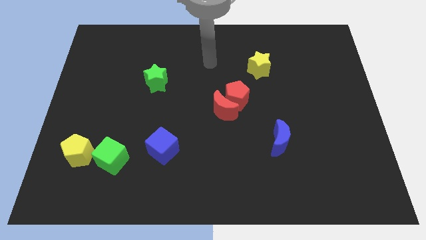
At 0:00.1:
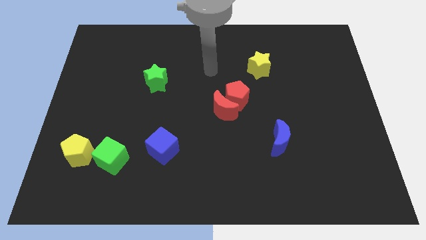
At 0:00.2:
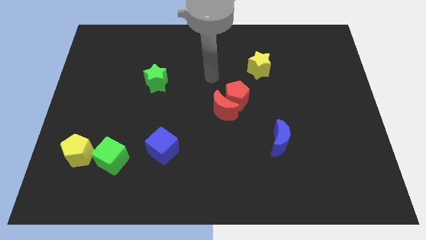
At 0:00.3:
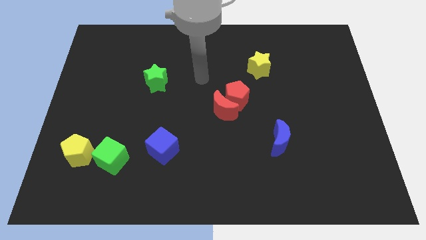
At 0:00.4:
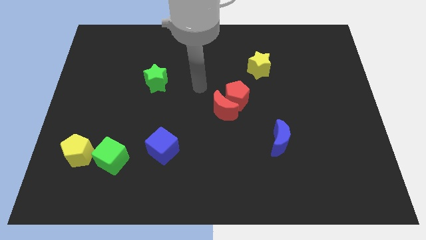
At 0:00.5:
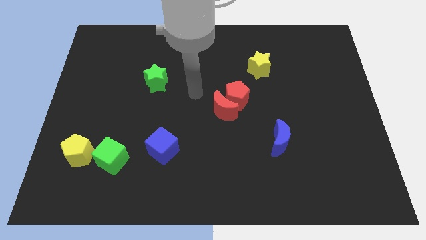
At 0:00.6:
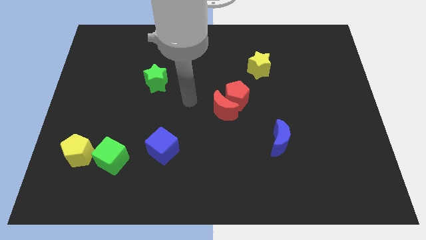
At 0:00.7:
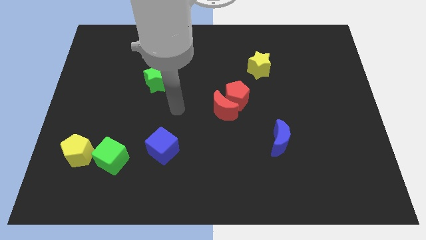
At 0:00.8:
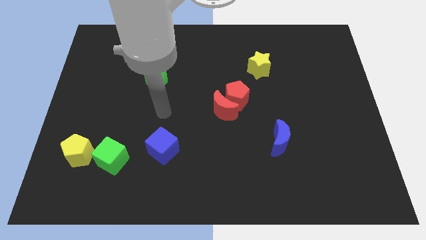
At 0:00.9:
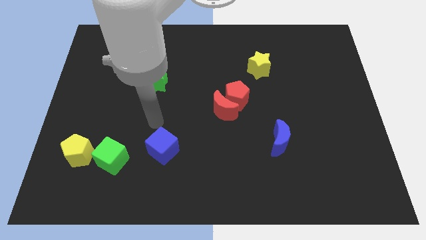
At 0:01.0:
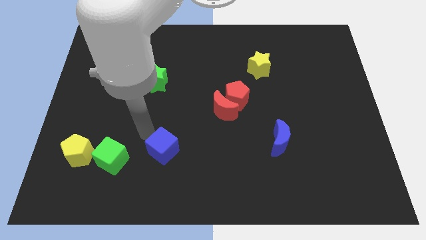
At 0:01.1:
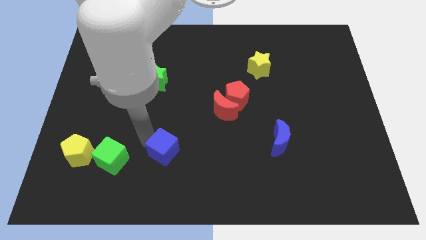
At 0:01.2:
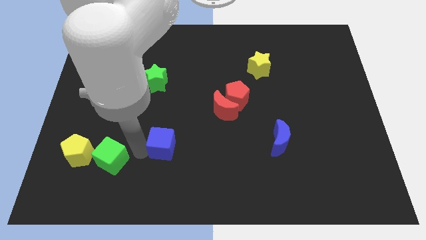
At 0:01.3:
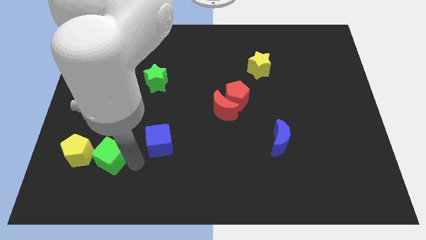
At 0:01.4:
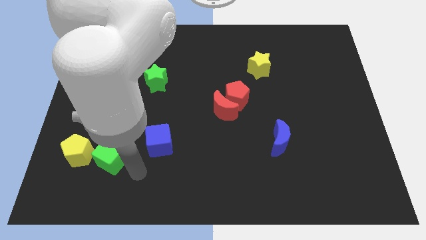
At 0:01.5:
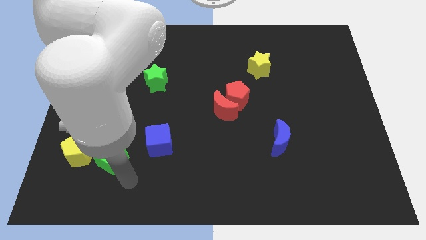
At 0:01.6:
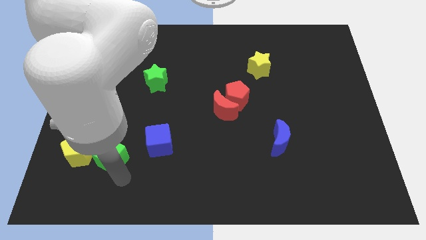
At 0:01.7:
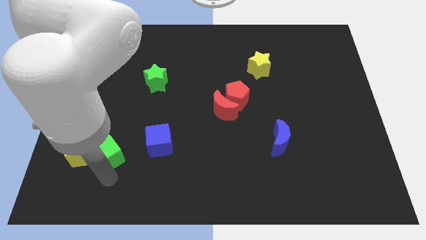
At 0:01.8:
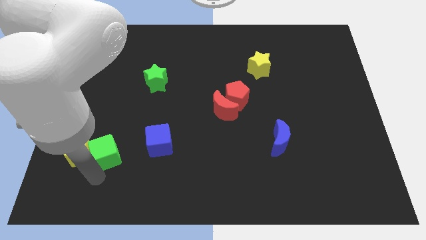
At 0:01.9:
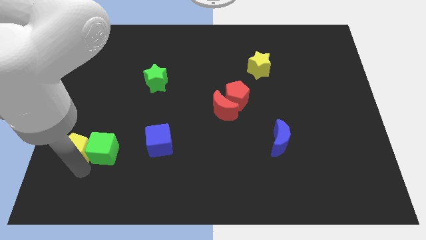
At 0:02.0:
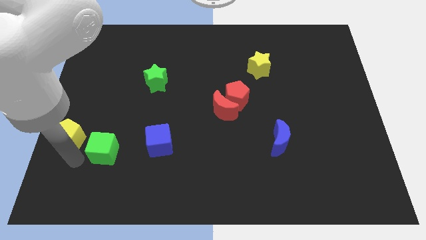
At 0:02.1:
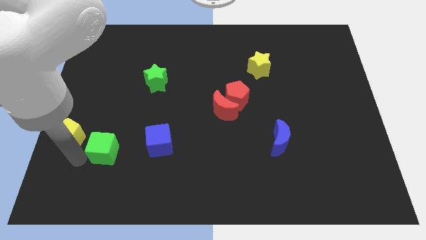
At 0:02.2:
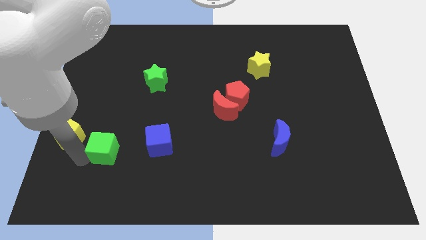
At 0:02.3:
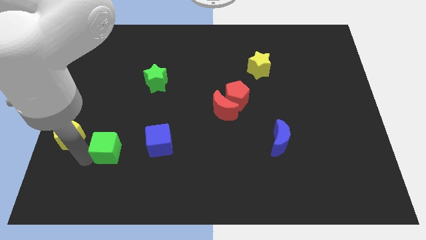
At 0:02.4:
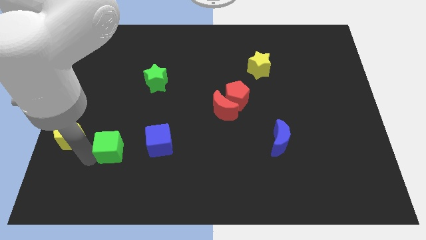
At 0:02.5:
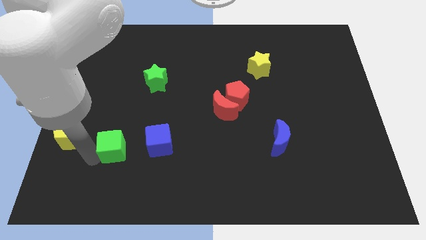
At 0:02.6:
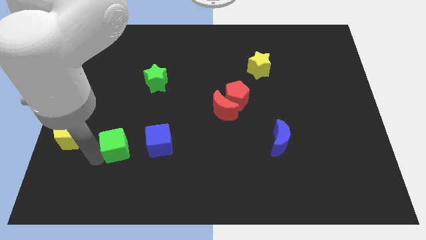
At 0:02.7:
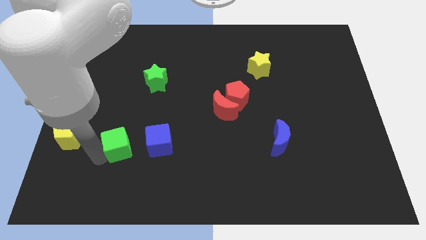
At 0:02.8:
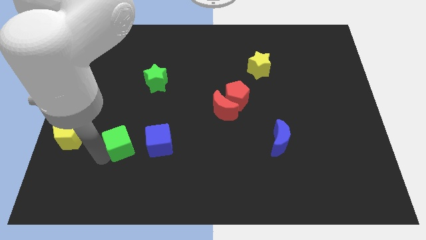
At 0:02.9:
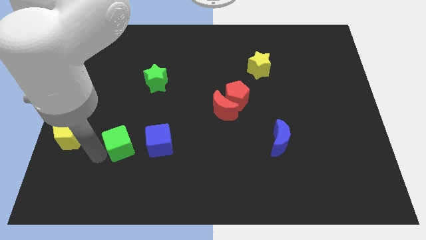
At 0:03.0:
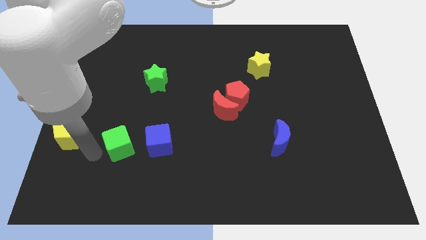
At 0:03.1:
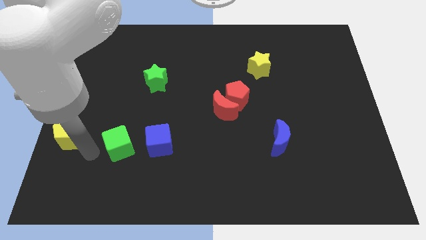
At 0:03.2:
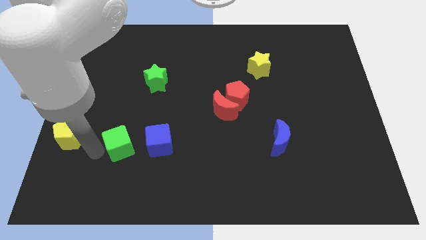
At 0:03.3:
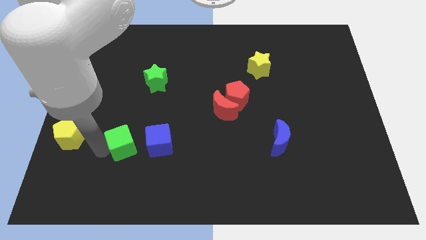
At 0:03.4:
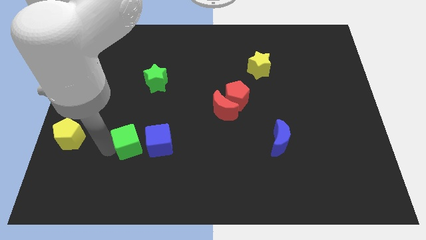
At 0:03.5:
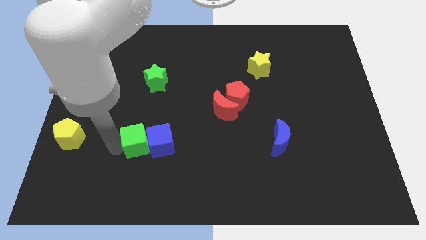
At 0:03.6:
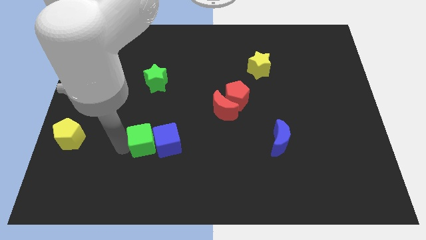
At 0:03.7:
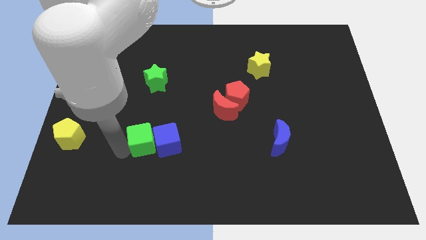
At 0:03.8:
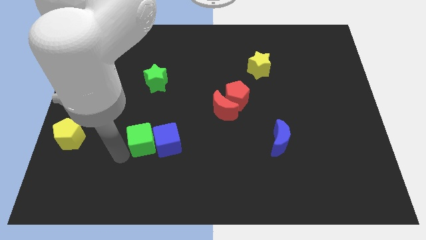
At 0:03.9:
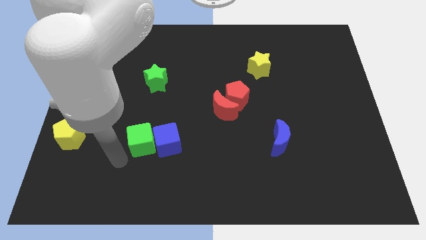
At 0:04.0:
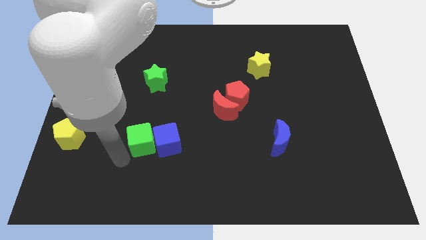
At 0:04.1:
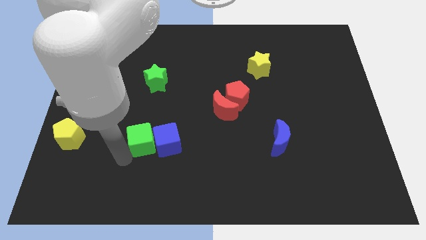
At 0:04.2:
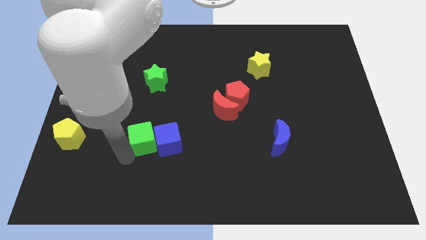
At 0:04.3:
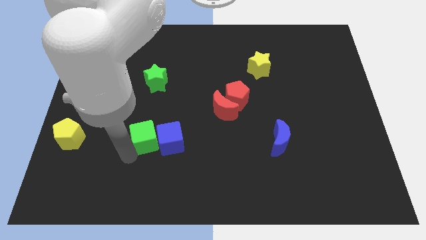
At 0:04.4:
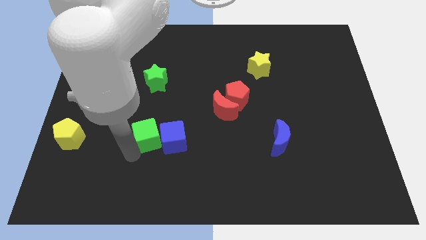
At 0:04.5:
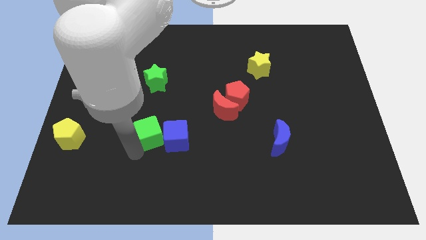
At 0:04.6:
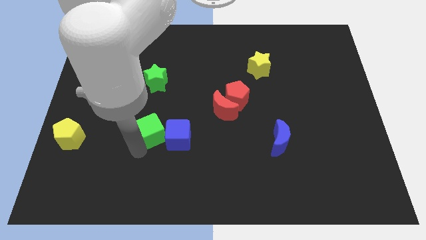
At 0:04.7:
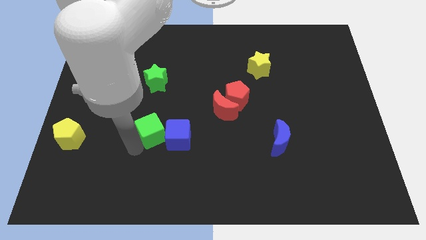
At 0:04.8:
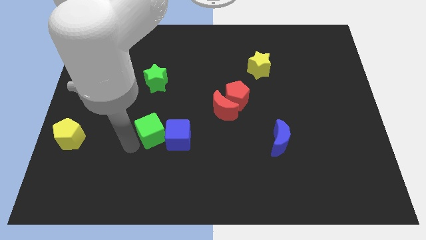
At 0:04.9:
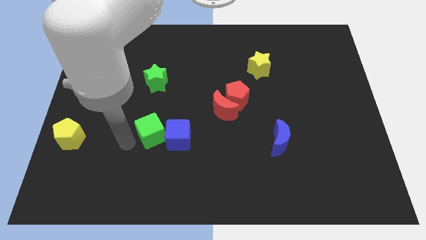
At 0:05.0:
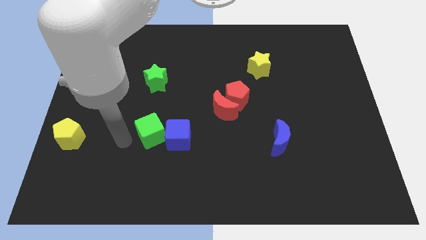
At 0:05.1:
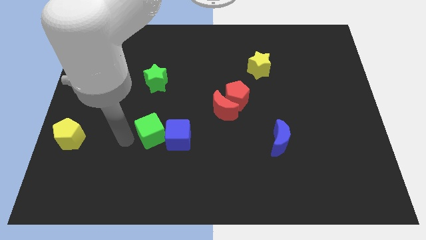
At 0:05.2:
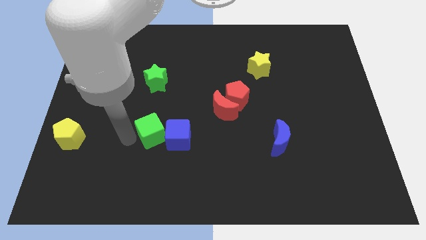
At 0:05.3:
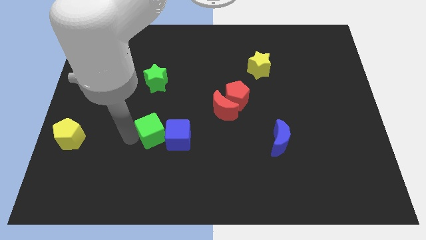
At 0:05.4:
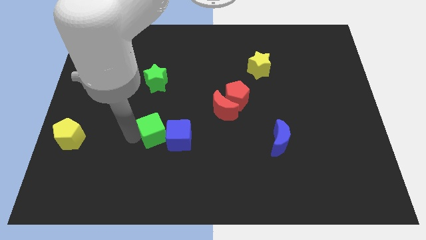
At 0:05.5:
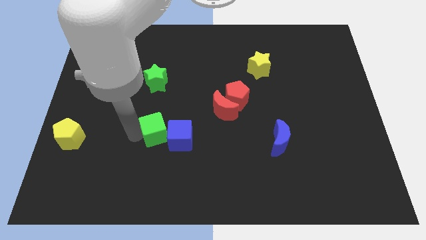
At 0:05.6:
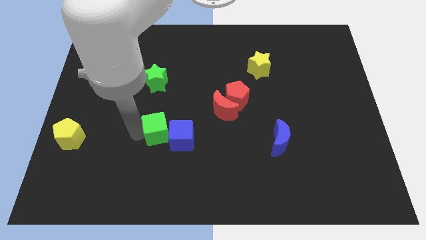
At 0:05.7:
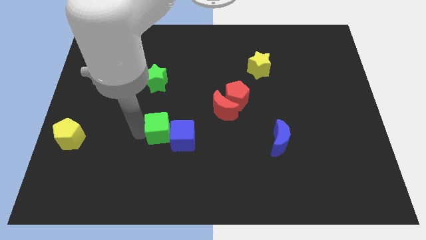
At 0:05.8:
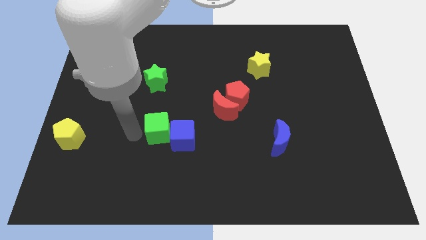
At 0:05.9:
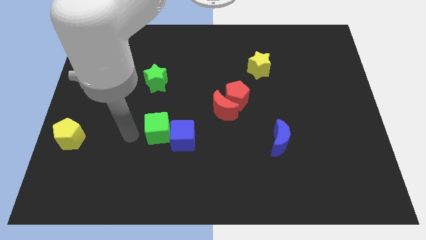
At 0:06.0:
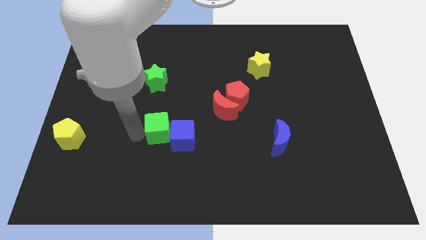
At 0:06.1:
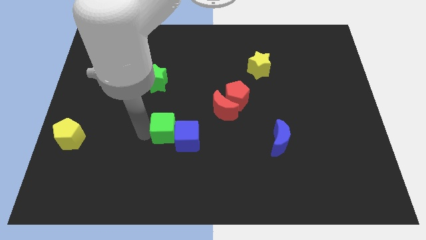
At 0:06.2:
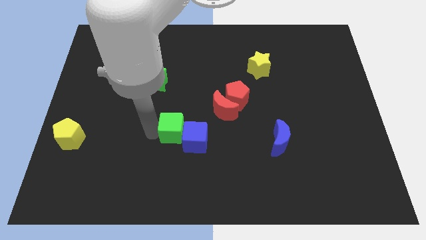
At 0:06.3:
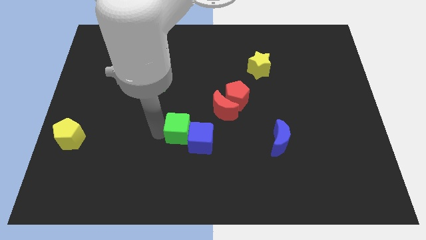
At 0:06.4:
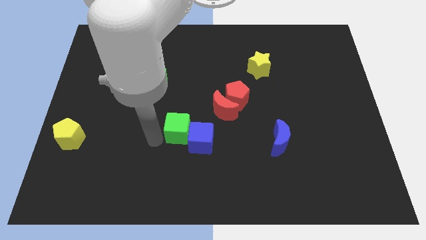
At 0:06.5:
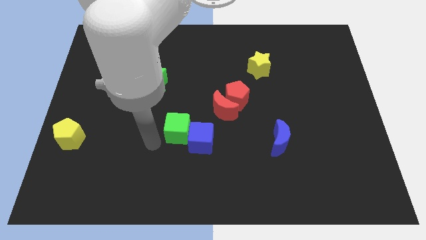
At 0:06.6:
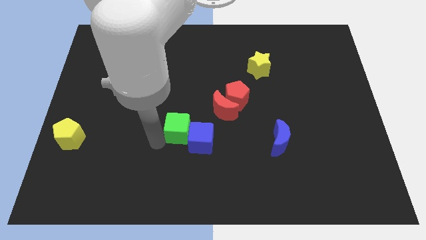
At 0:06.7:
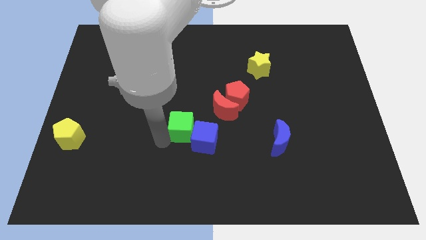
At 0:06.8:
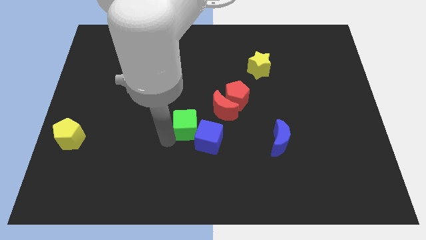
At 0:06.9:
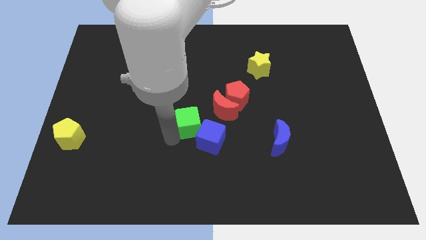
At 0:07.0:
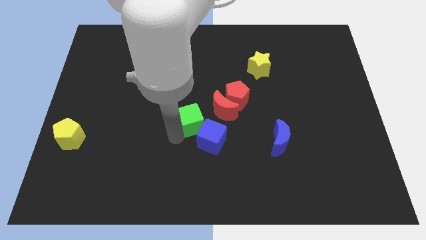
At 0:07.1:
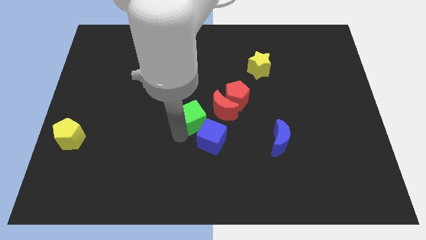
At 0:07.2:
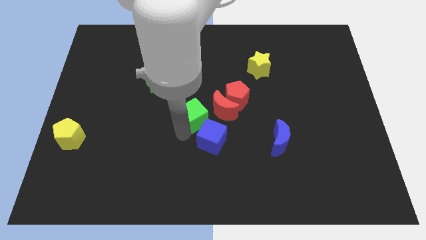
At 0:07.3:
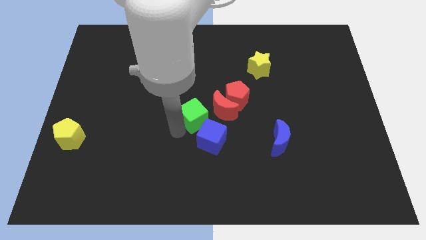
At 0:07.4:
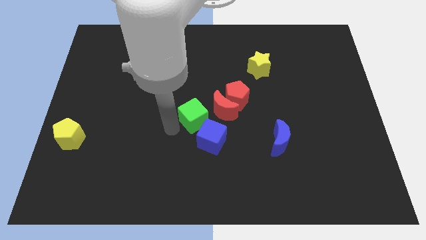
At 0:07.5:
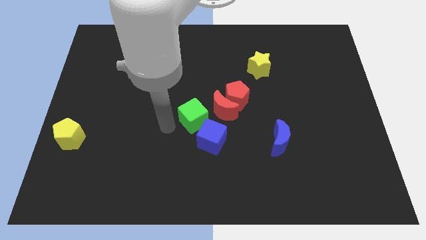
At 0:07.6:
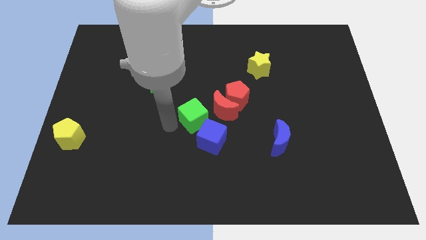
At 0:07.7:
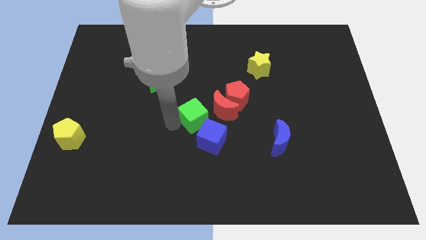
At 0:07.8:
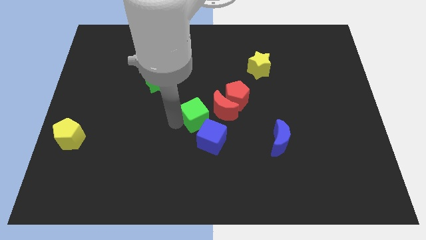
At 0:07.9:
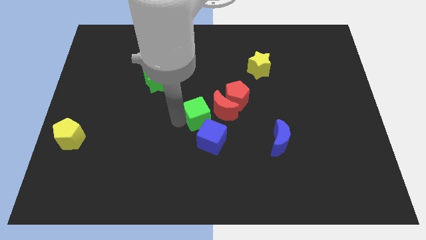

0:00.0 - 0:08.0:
put the green cube towards the red moon
